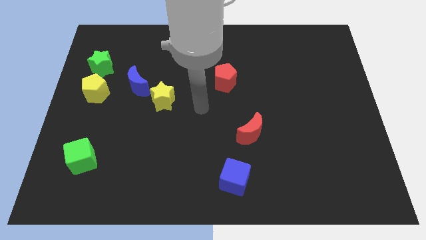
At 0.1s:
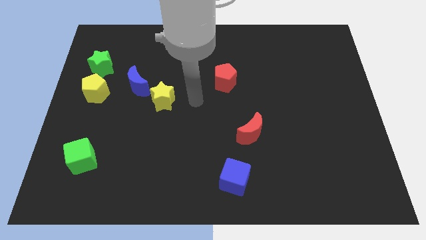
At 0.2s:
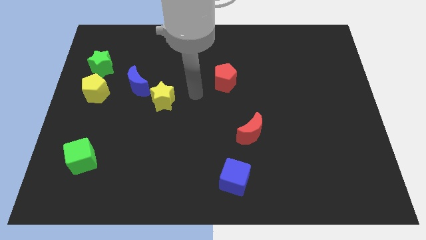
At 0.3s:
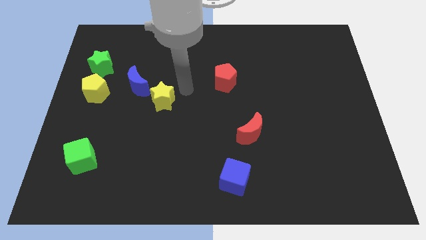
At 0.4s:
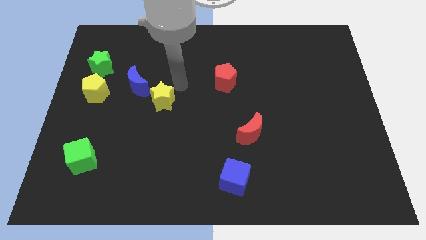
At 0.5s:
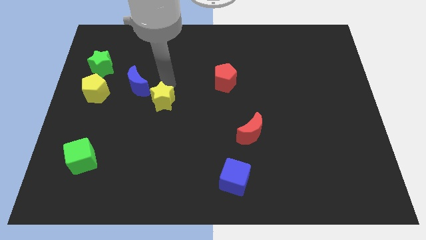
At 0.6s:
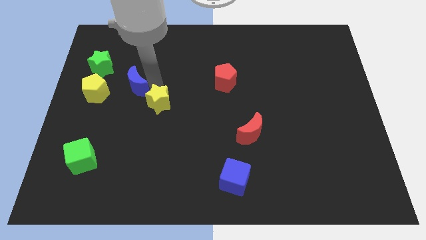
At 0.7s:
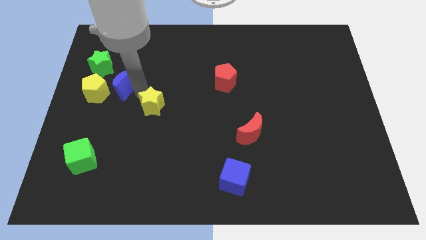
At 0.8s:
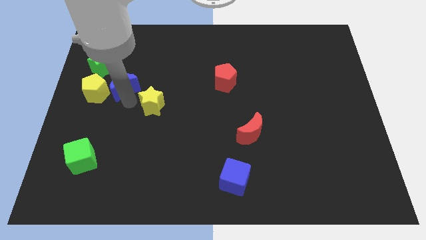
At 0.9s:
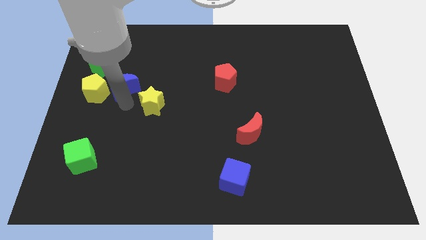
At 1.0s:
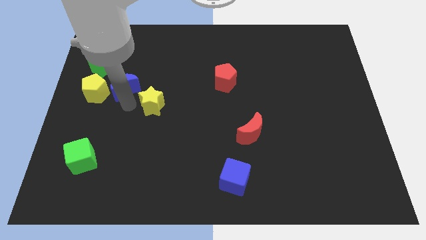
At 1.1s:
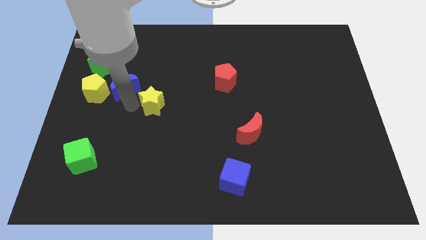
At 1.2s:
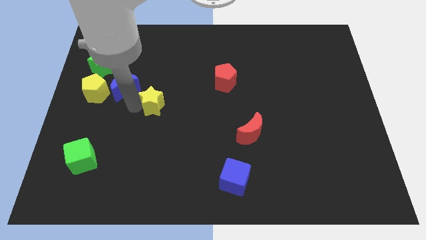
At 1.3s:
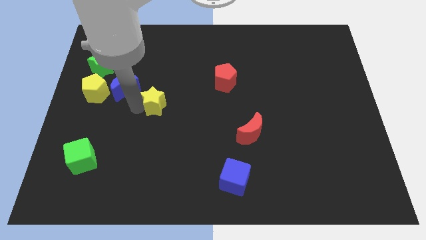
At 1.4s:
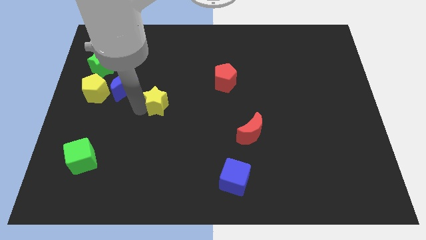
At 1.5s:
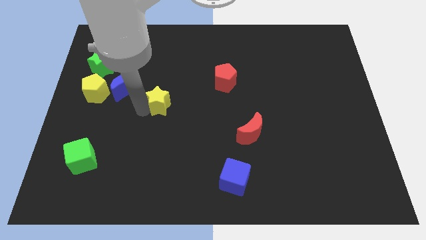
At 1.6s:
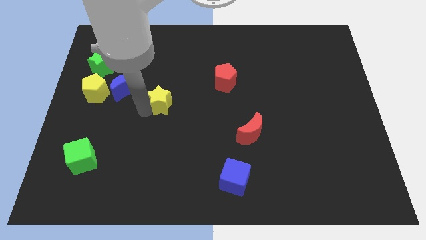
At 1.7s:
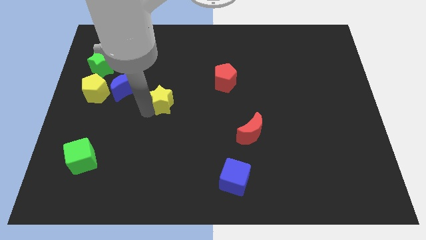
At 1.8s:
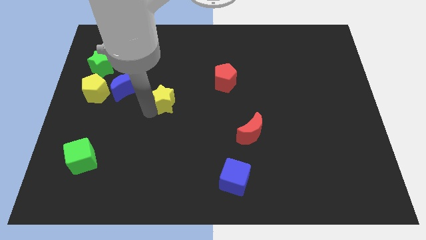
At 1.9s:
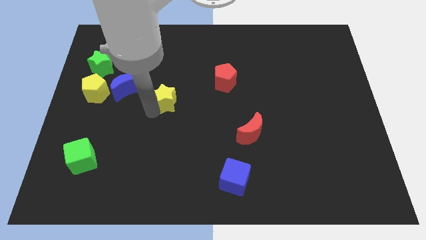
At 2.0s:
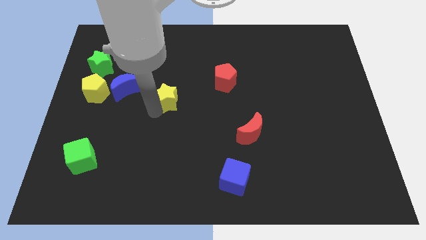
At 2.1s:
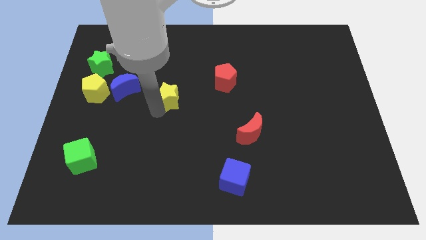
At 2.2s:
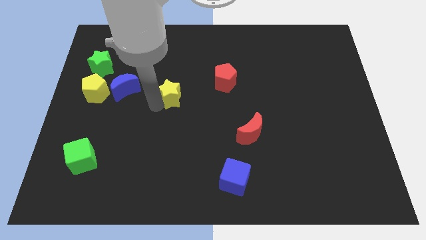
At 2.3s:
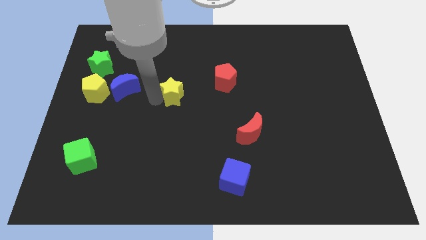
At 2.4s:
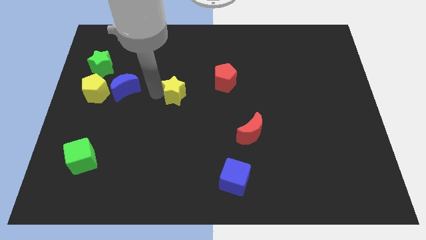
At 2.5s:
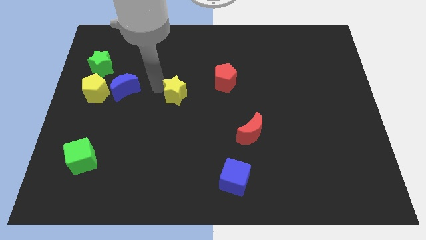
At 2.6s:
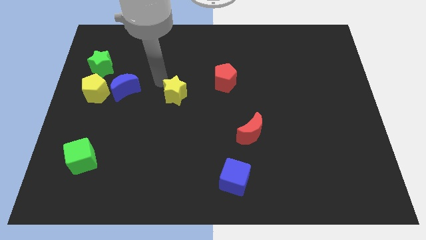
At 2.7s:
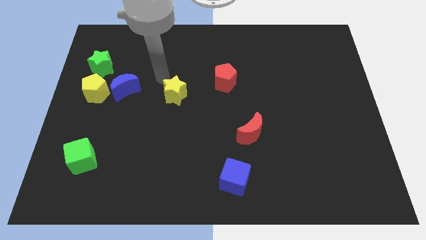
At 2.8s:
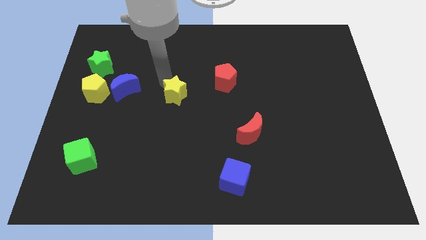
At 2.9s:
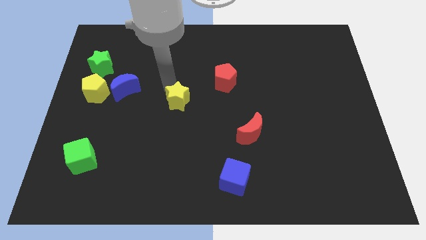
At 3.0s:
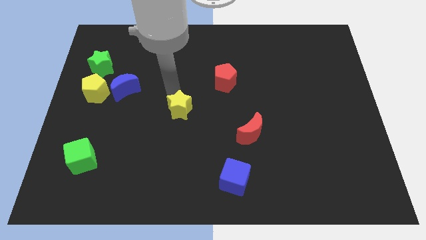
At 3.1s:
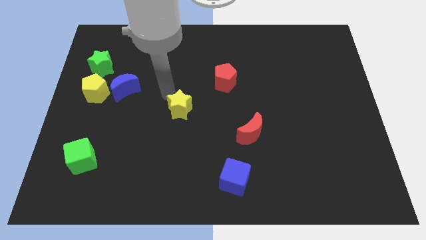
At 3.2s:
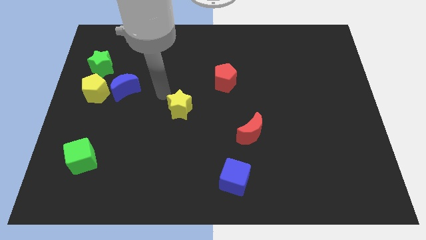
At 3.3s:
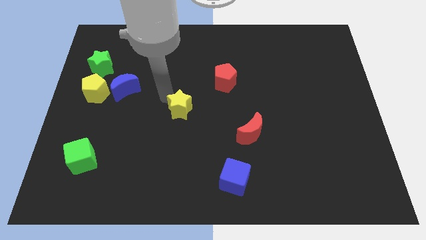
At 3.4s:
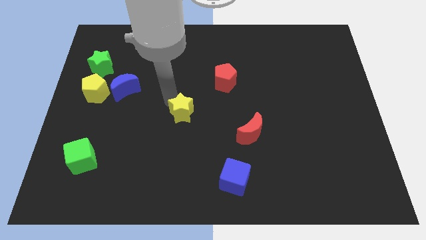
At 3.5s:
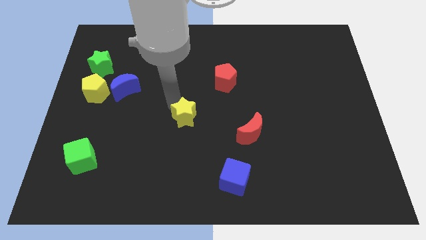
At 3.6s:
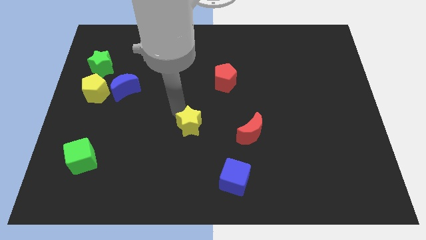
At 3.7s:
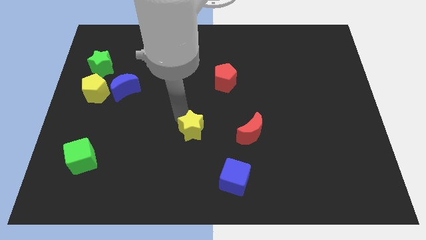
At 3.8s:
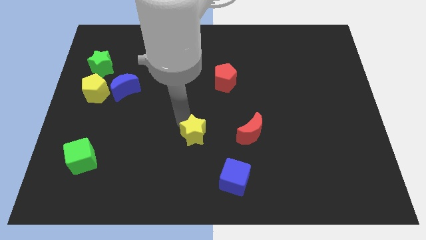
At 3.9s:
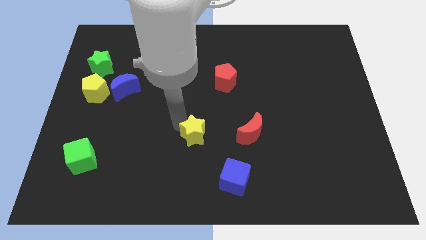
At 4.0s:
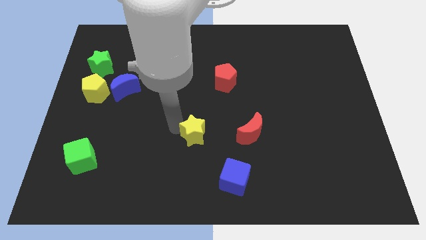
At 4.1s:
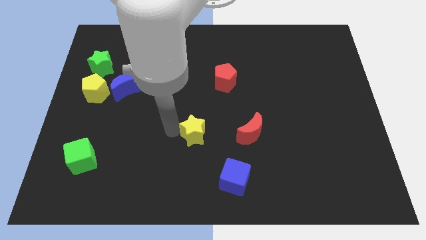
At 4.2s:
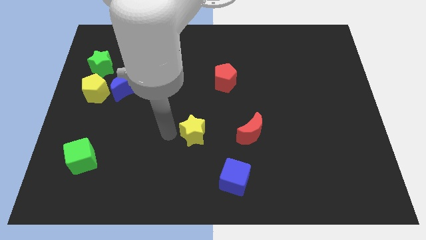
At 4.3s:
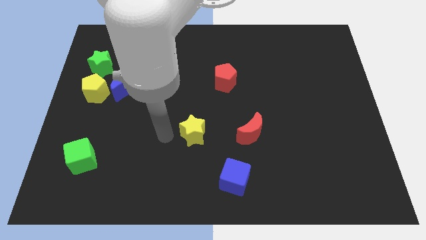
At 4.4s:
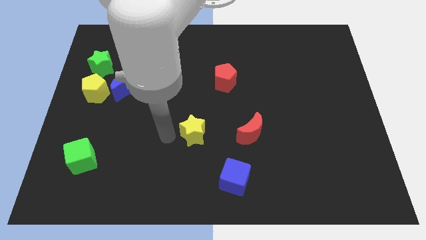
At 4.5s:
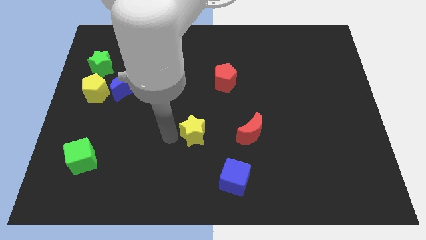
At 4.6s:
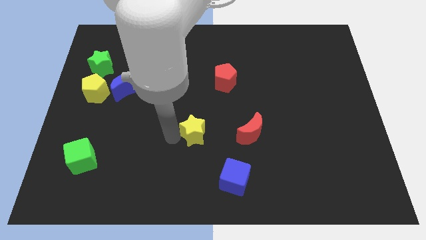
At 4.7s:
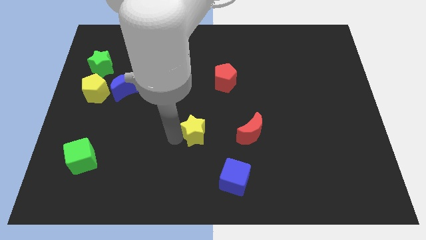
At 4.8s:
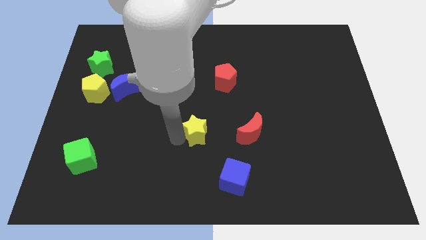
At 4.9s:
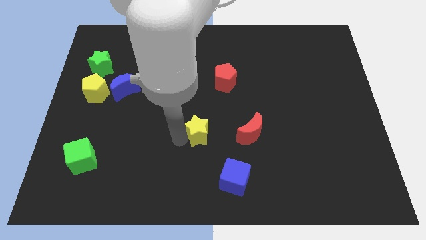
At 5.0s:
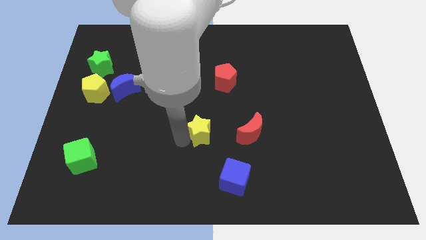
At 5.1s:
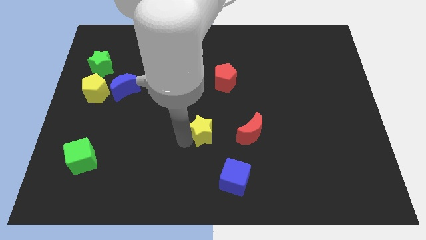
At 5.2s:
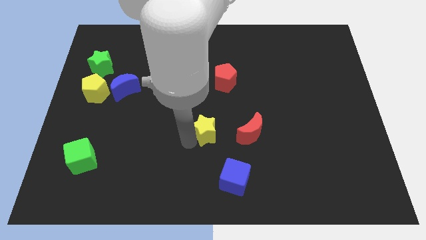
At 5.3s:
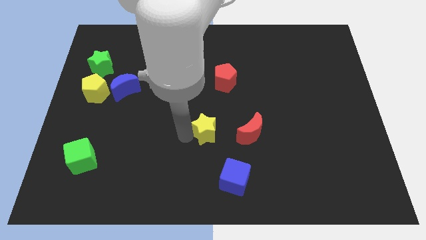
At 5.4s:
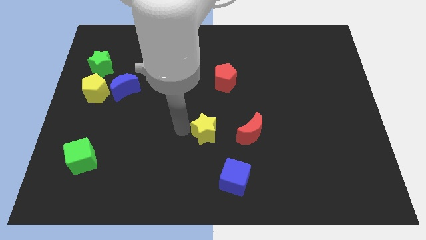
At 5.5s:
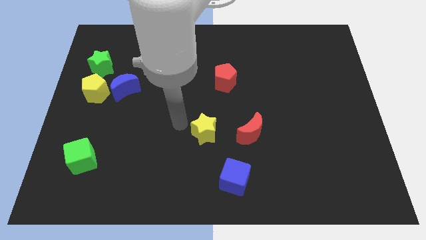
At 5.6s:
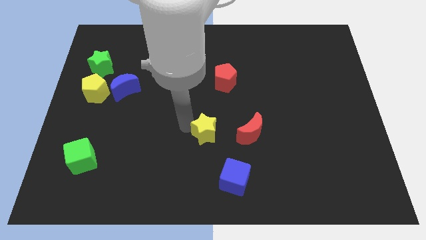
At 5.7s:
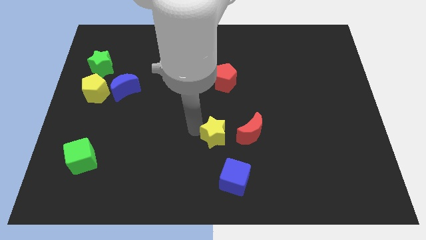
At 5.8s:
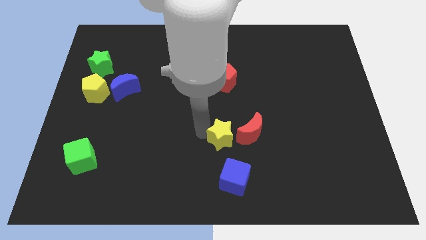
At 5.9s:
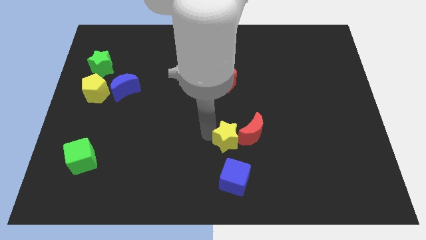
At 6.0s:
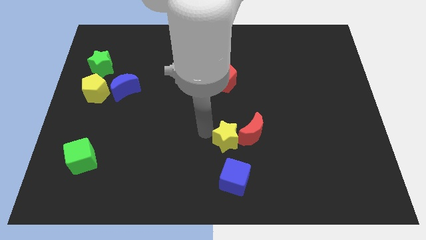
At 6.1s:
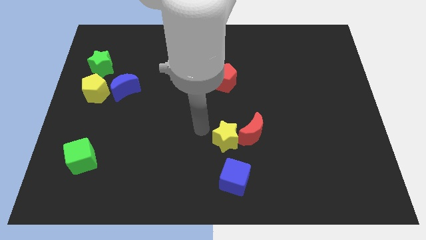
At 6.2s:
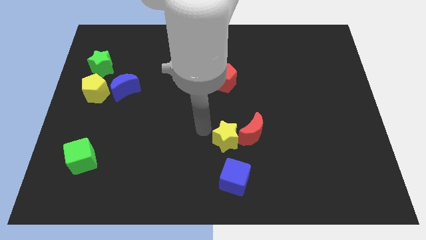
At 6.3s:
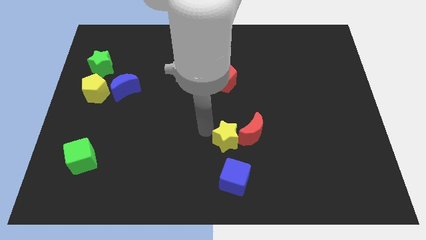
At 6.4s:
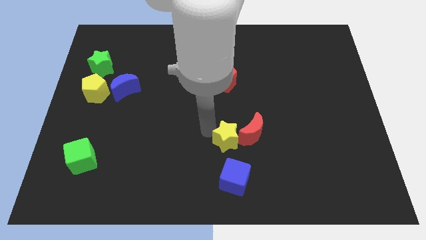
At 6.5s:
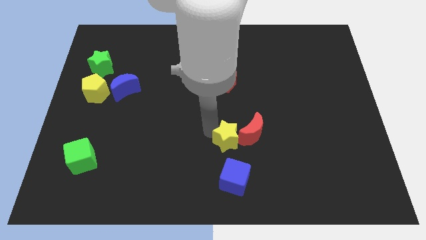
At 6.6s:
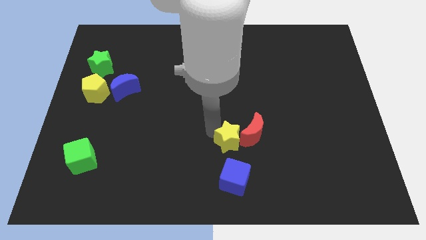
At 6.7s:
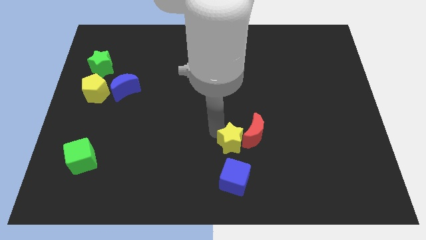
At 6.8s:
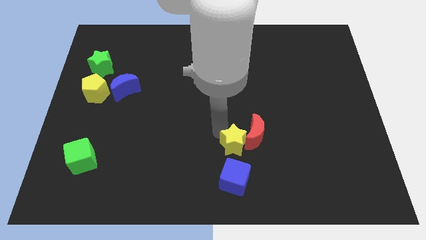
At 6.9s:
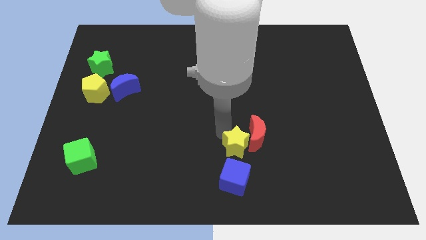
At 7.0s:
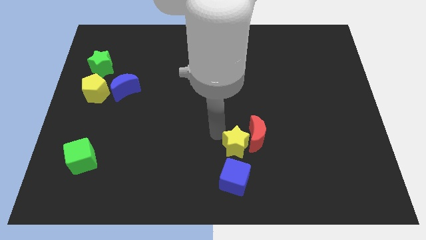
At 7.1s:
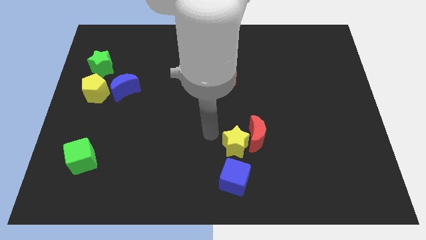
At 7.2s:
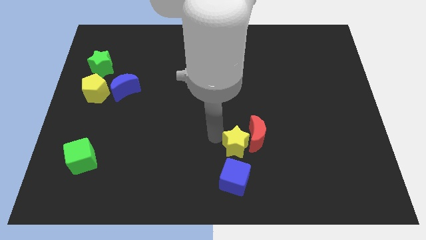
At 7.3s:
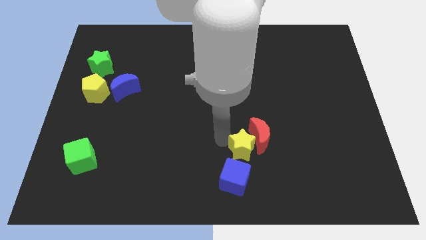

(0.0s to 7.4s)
put the yellow star to the top right side of the blue cube

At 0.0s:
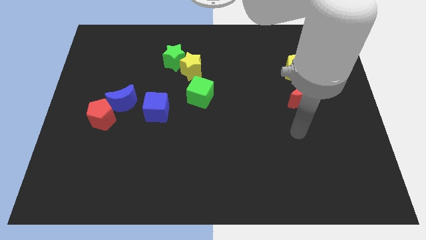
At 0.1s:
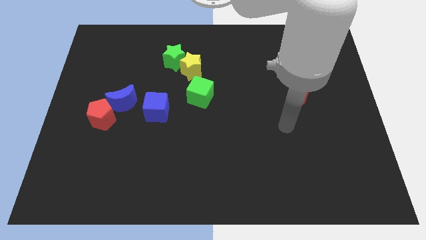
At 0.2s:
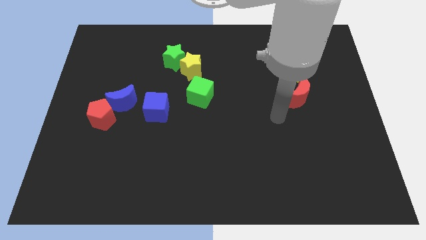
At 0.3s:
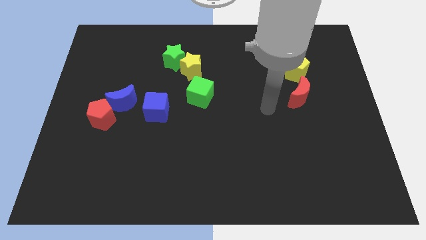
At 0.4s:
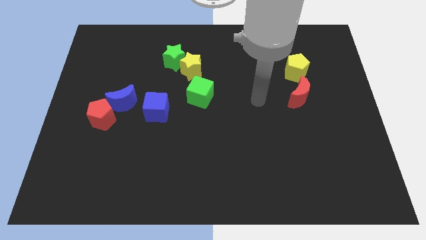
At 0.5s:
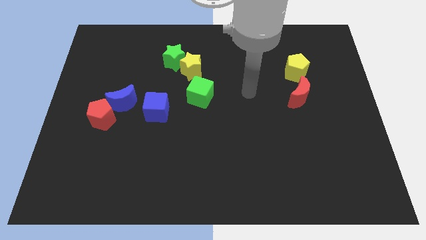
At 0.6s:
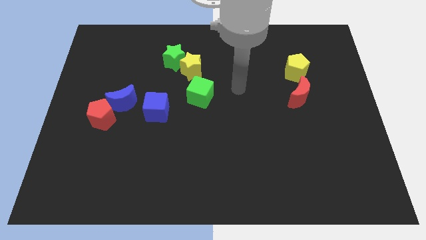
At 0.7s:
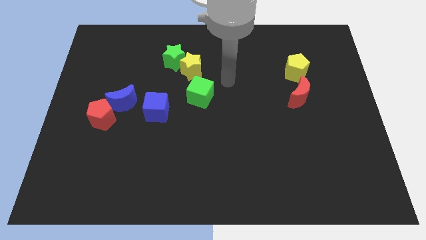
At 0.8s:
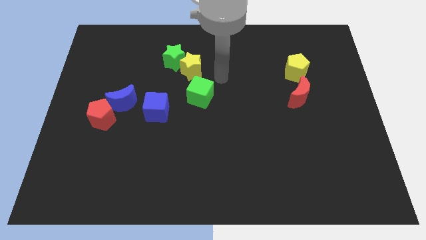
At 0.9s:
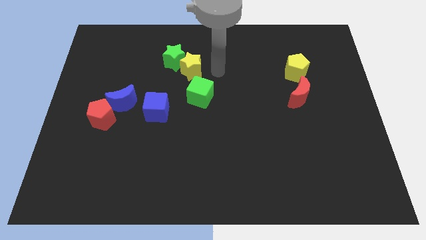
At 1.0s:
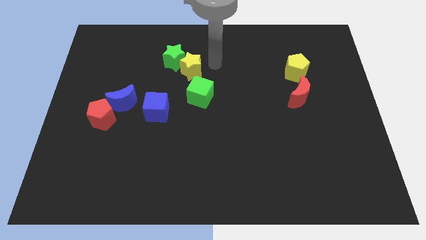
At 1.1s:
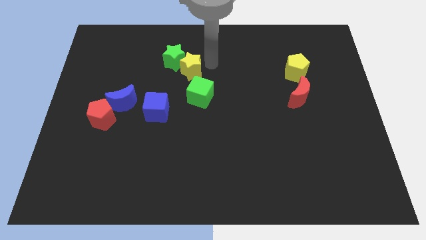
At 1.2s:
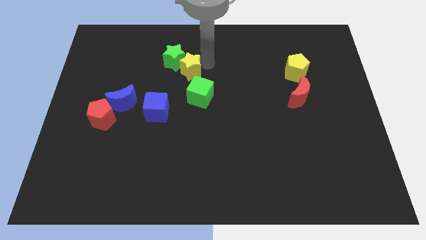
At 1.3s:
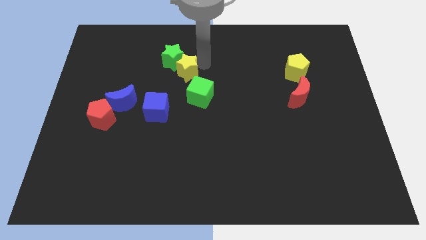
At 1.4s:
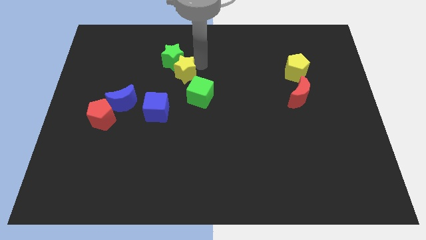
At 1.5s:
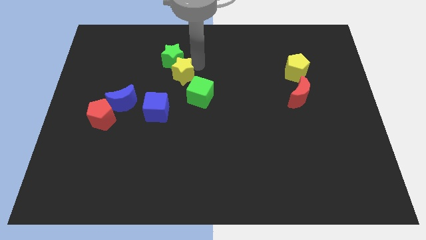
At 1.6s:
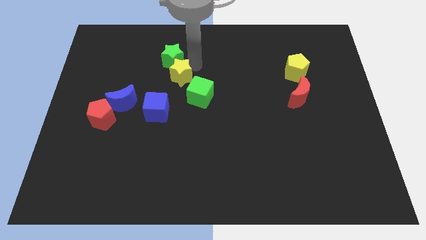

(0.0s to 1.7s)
slide the yellow star to the top of the blue cube
